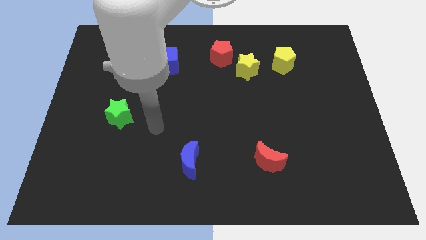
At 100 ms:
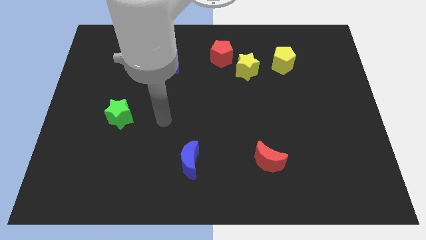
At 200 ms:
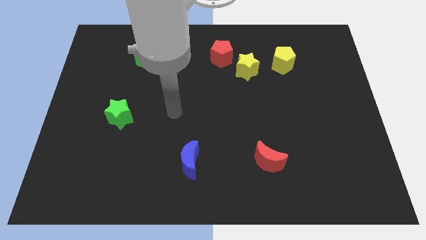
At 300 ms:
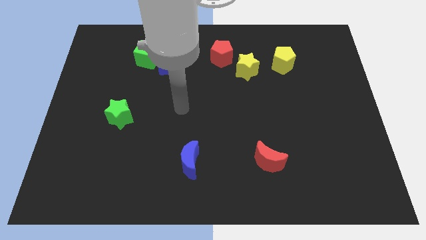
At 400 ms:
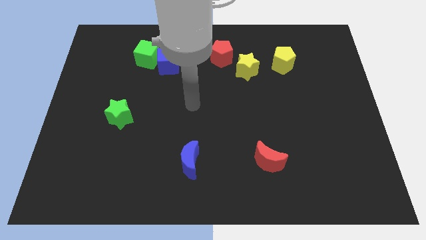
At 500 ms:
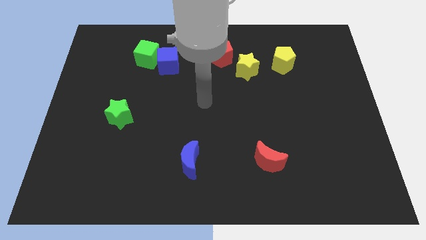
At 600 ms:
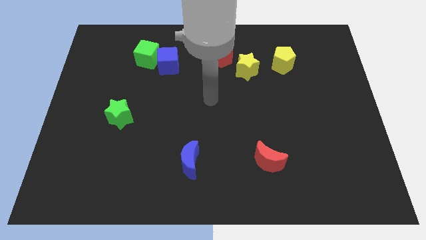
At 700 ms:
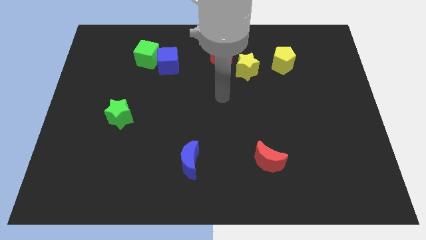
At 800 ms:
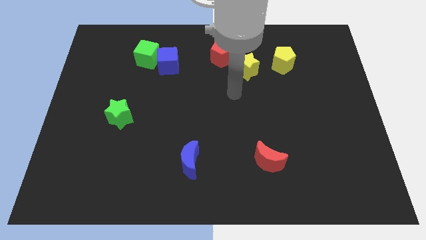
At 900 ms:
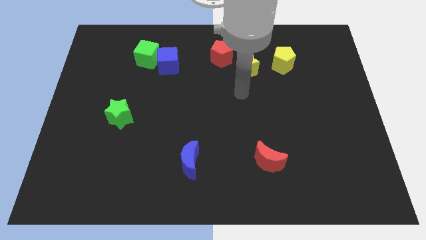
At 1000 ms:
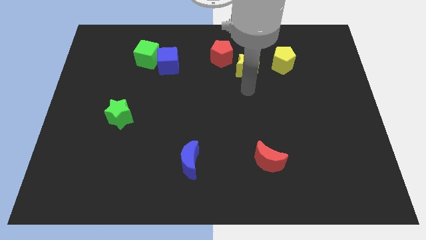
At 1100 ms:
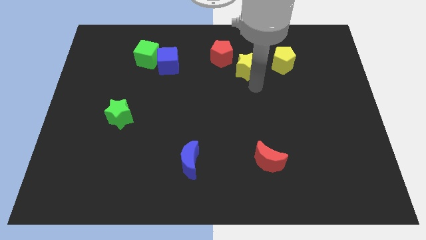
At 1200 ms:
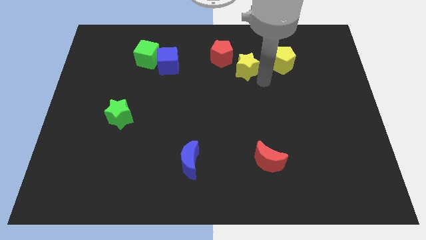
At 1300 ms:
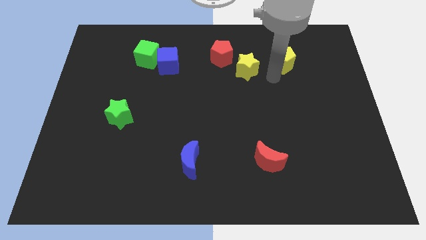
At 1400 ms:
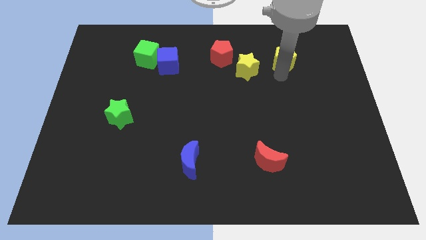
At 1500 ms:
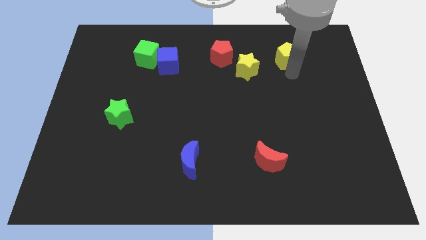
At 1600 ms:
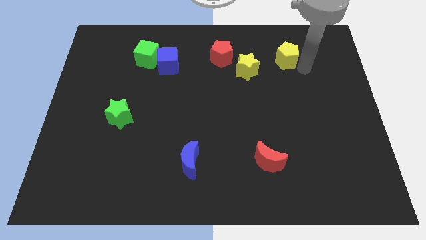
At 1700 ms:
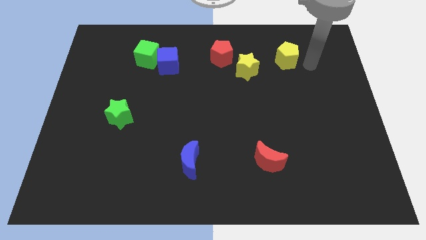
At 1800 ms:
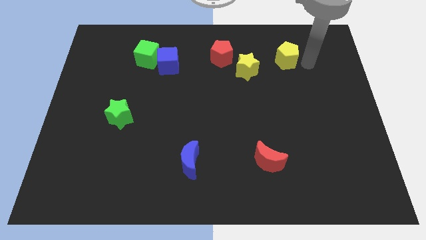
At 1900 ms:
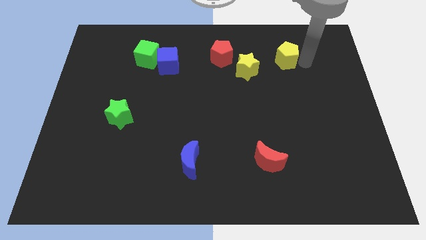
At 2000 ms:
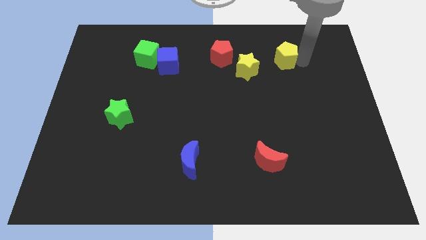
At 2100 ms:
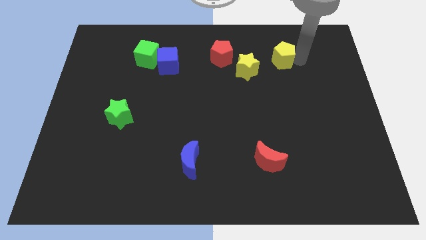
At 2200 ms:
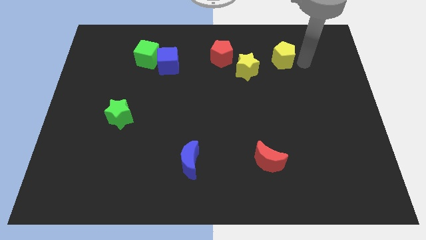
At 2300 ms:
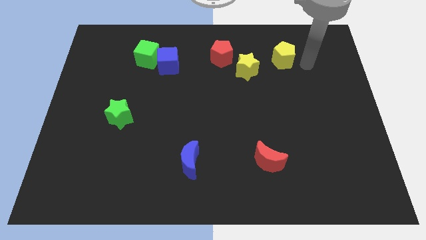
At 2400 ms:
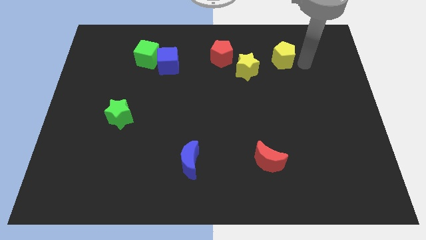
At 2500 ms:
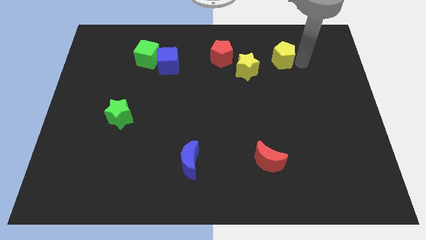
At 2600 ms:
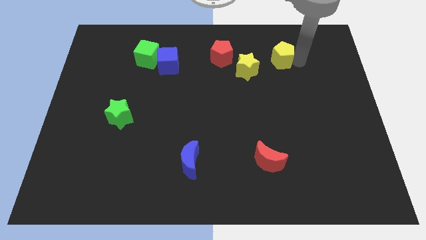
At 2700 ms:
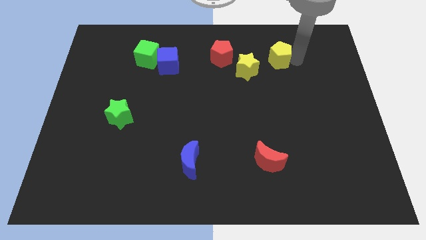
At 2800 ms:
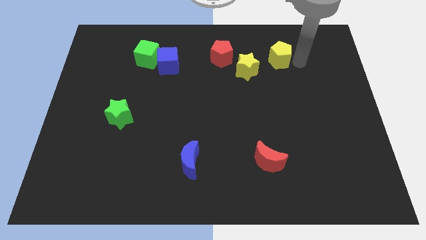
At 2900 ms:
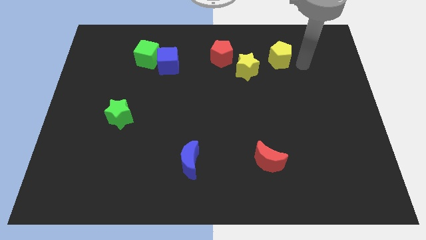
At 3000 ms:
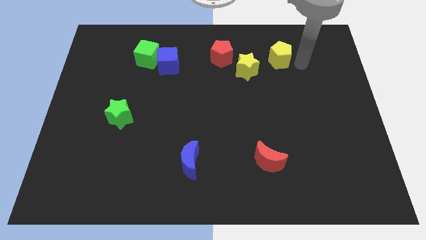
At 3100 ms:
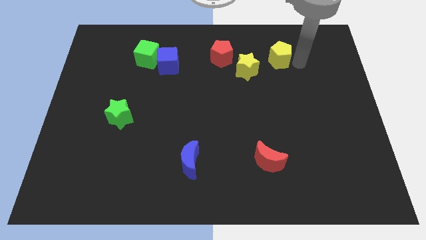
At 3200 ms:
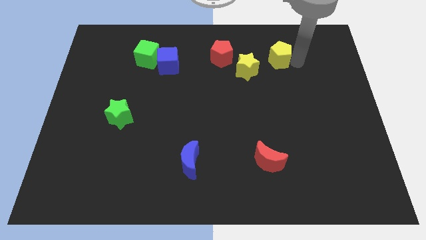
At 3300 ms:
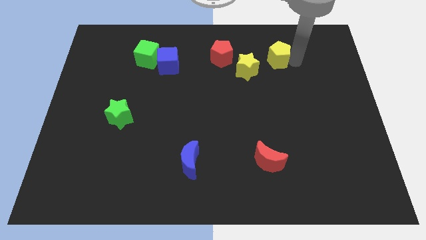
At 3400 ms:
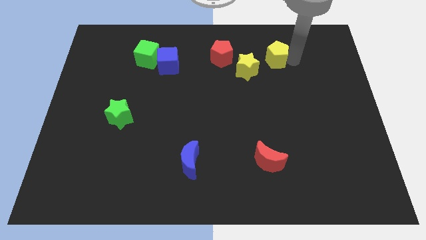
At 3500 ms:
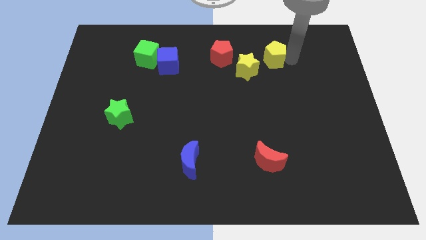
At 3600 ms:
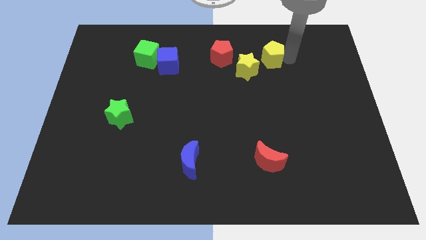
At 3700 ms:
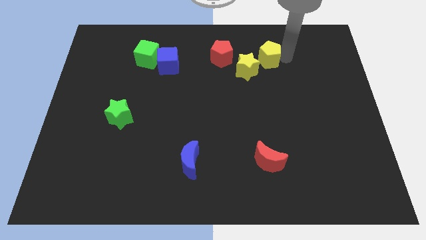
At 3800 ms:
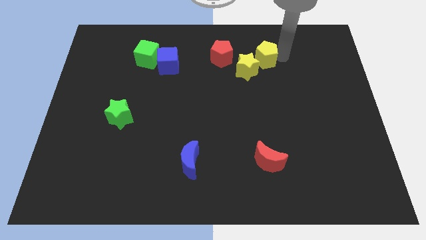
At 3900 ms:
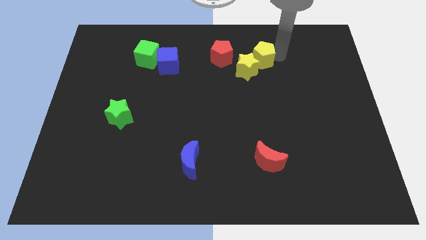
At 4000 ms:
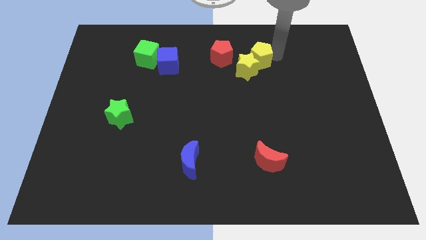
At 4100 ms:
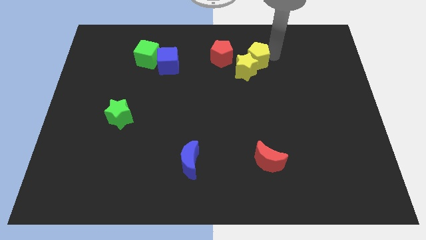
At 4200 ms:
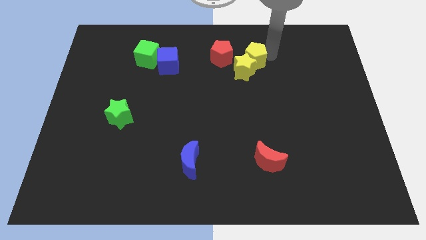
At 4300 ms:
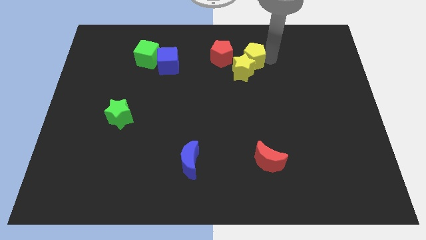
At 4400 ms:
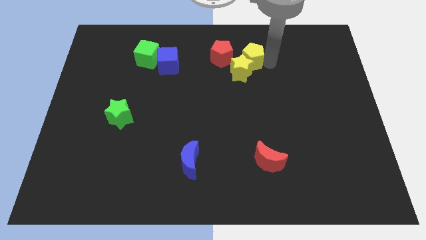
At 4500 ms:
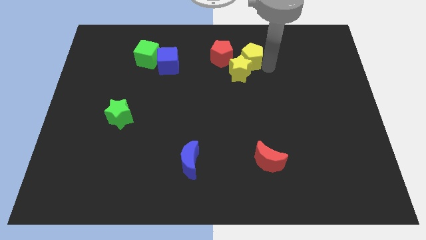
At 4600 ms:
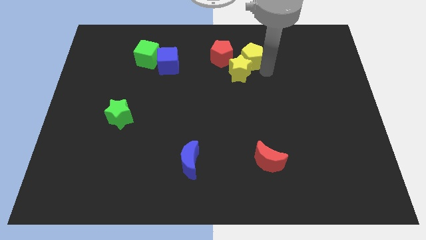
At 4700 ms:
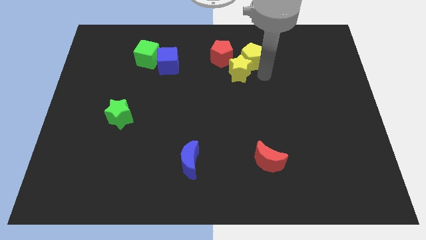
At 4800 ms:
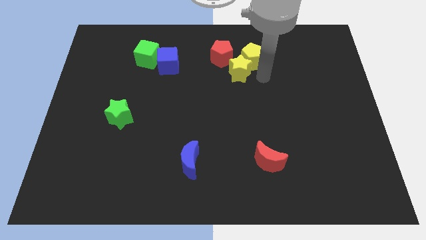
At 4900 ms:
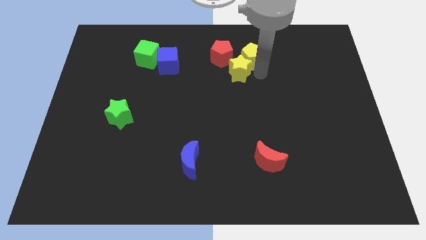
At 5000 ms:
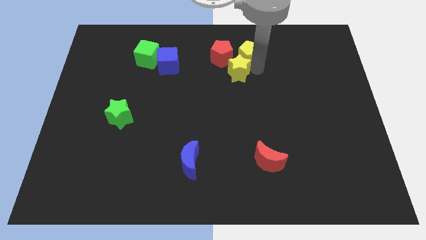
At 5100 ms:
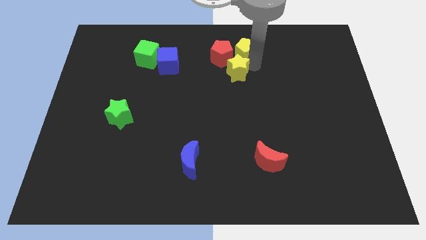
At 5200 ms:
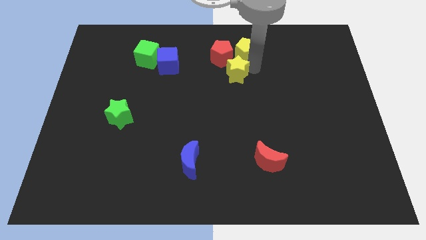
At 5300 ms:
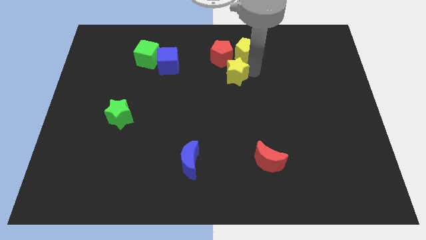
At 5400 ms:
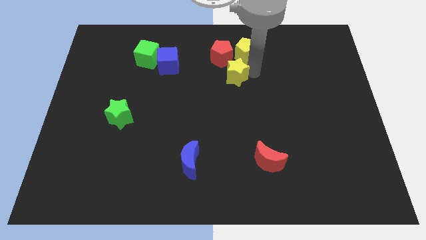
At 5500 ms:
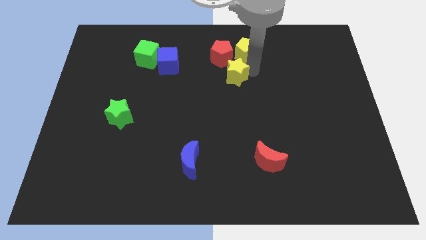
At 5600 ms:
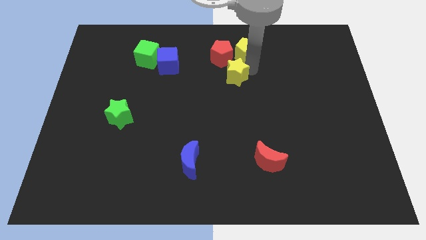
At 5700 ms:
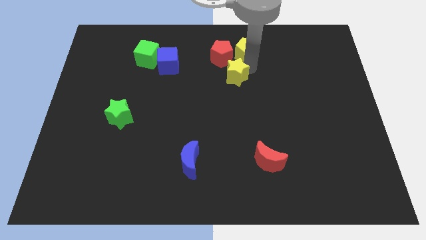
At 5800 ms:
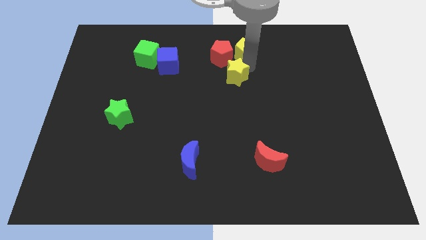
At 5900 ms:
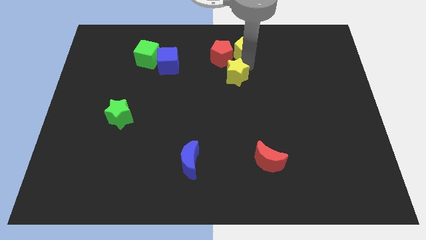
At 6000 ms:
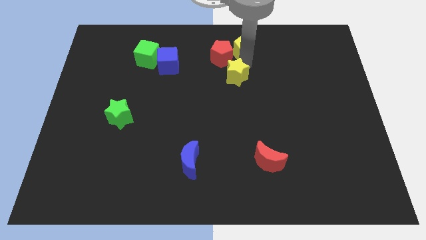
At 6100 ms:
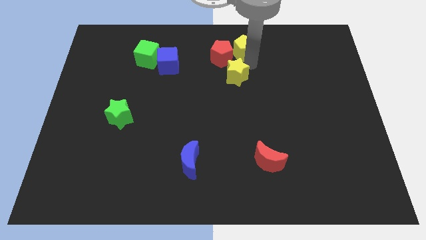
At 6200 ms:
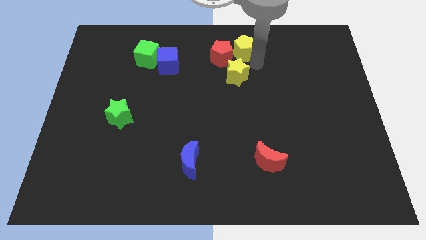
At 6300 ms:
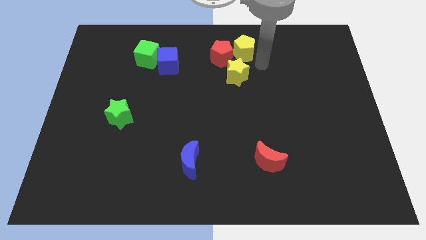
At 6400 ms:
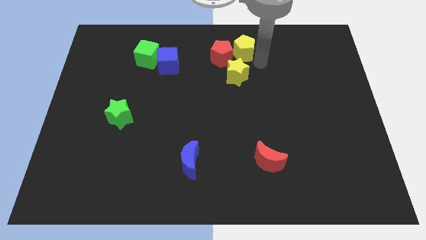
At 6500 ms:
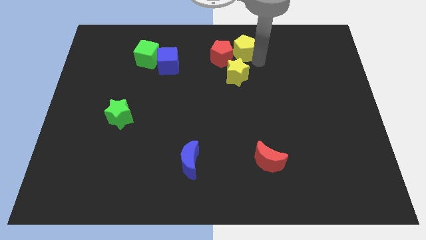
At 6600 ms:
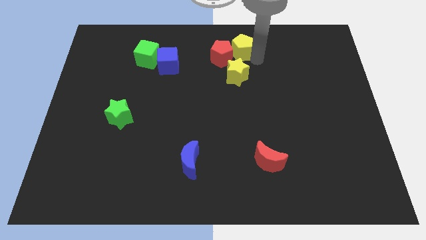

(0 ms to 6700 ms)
slide the yellow pentagon to the top side
